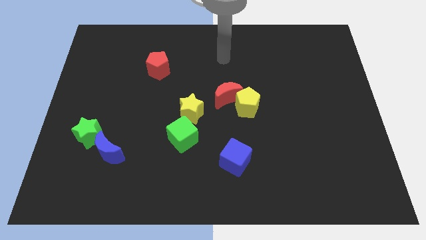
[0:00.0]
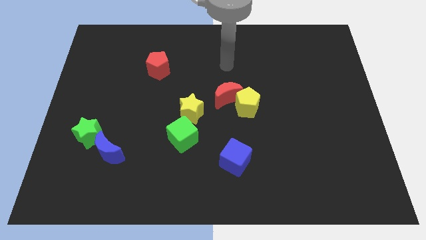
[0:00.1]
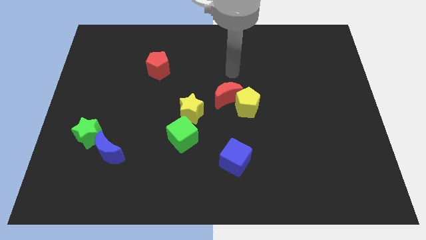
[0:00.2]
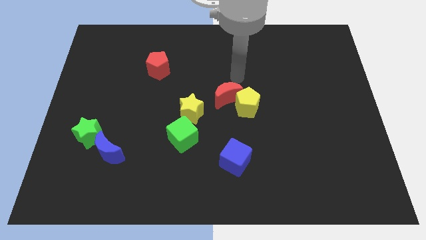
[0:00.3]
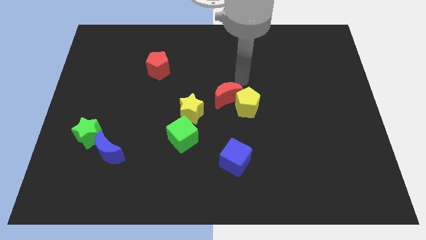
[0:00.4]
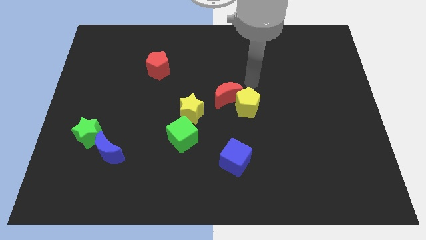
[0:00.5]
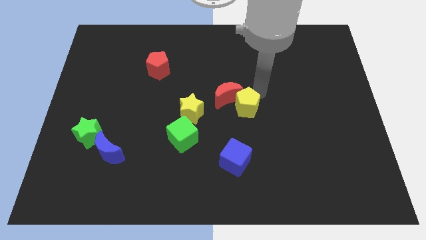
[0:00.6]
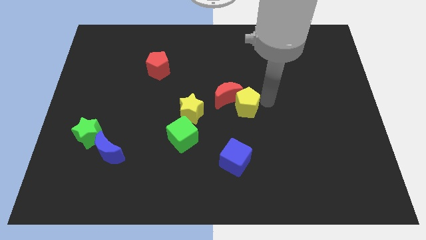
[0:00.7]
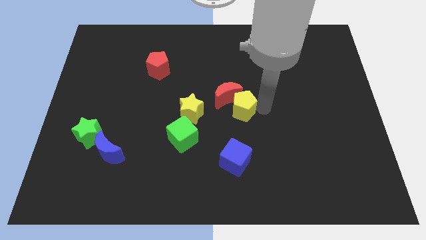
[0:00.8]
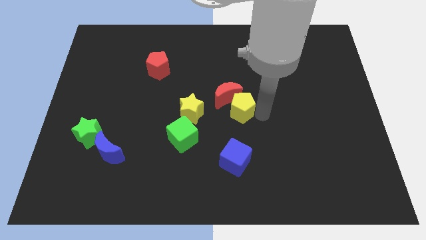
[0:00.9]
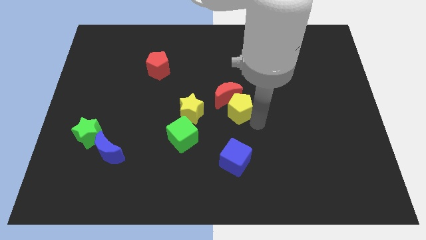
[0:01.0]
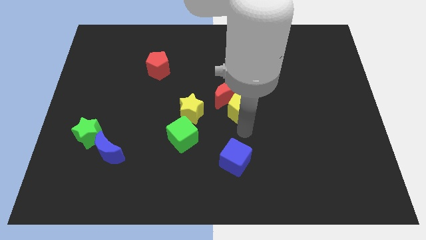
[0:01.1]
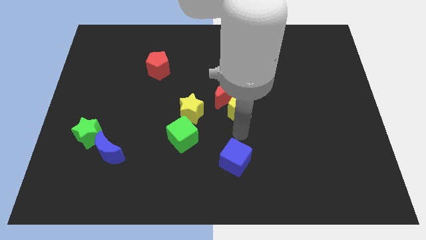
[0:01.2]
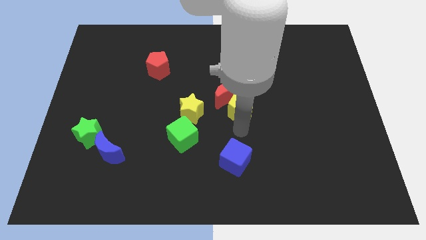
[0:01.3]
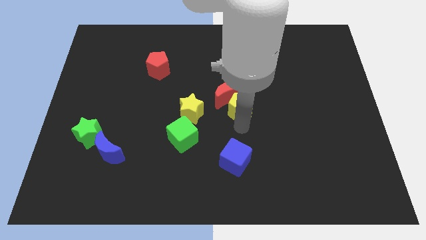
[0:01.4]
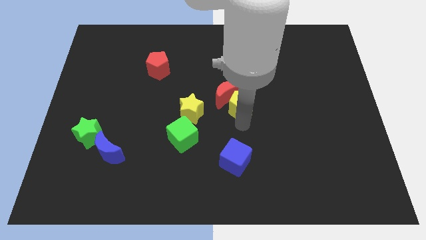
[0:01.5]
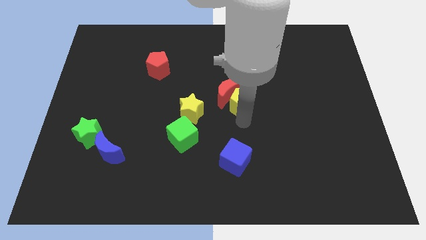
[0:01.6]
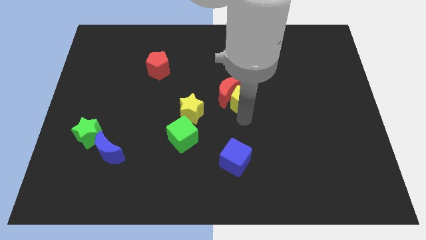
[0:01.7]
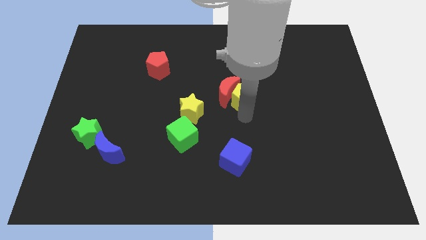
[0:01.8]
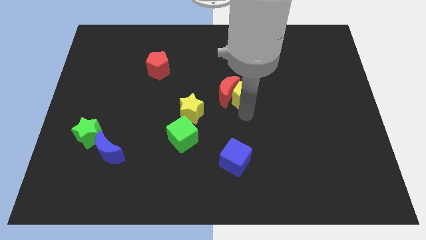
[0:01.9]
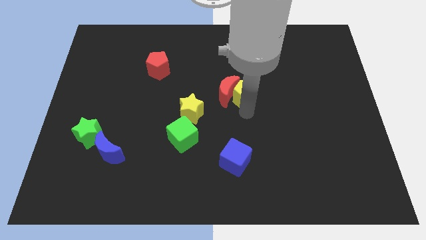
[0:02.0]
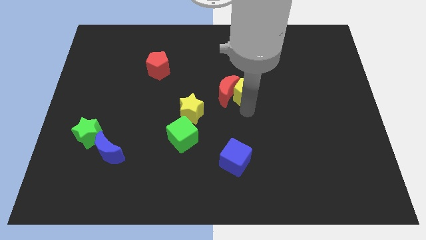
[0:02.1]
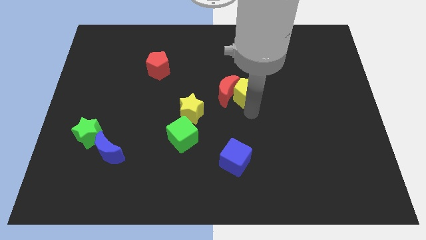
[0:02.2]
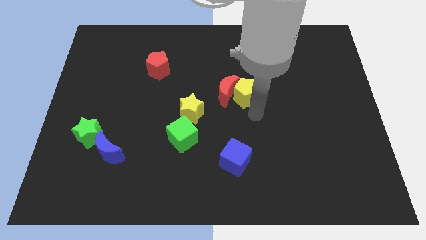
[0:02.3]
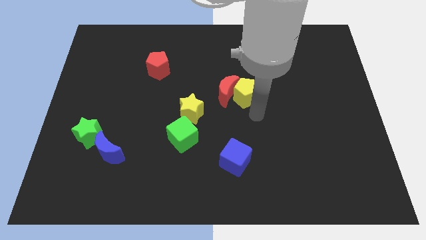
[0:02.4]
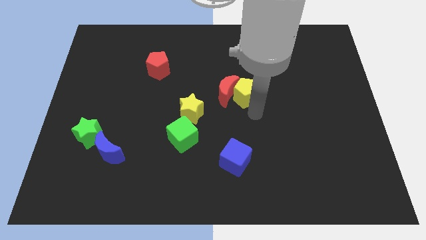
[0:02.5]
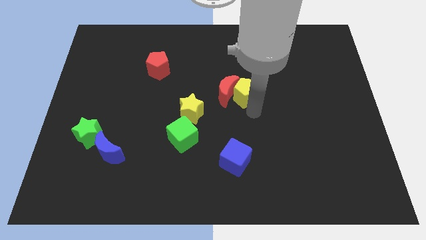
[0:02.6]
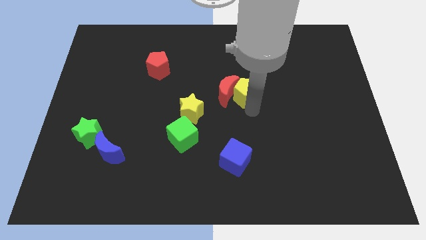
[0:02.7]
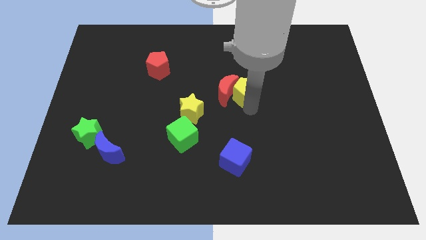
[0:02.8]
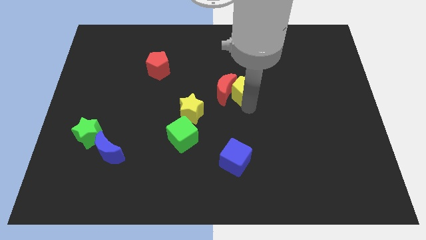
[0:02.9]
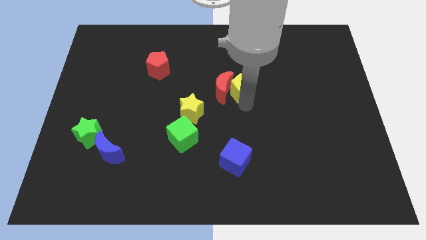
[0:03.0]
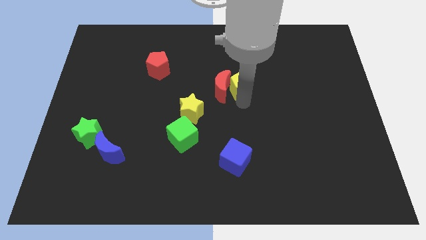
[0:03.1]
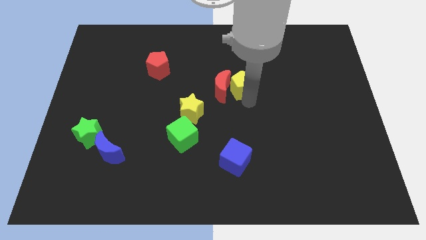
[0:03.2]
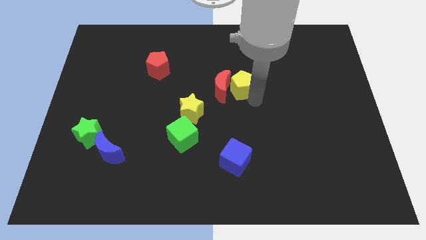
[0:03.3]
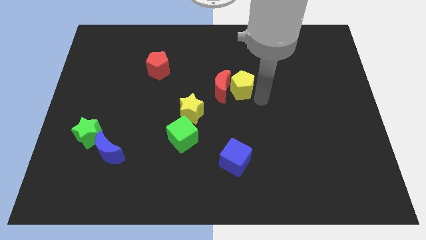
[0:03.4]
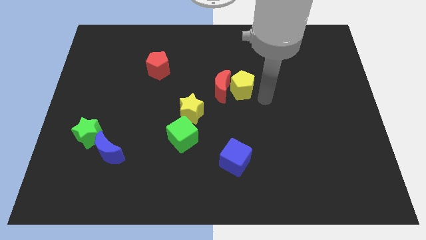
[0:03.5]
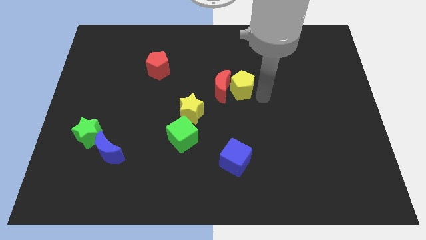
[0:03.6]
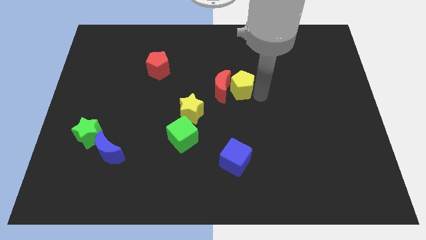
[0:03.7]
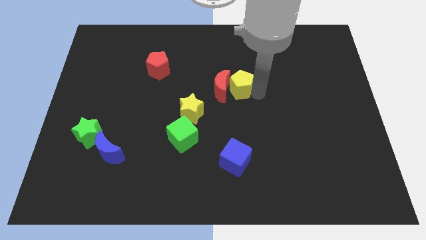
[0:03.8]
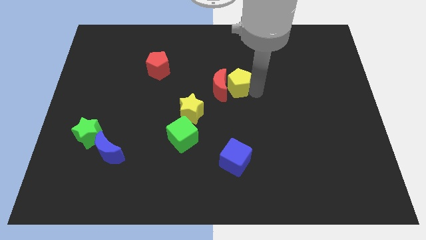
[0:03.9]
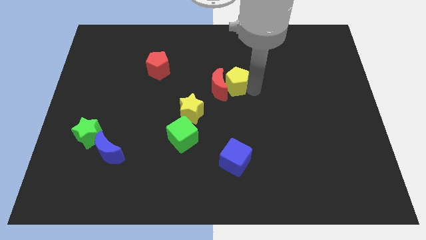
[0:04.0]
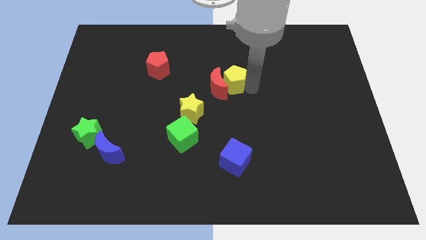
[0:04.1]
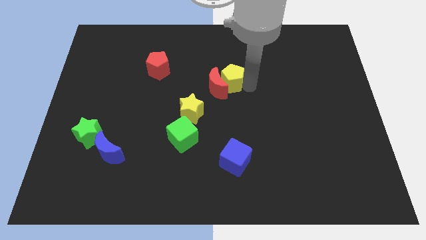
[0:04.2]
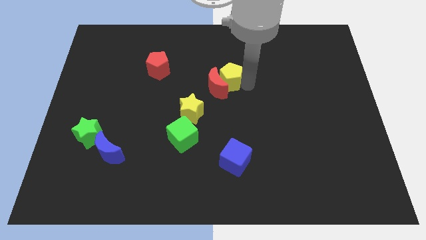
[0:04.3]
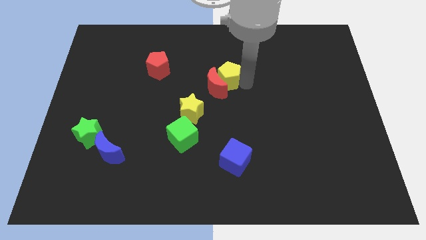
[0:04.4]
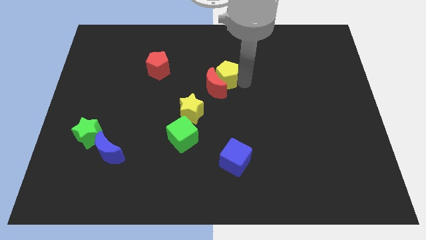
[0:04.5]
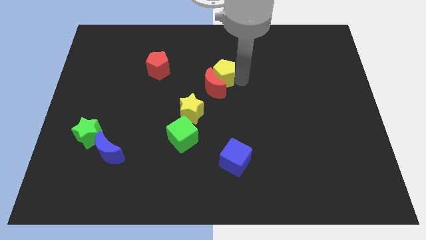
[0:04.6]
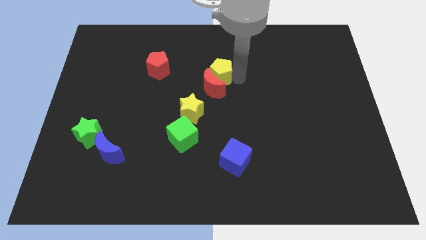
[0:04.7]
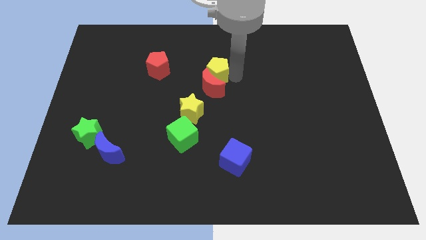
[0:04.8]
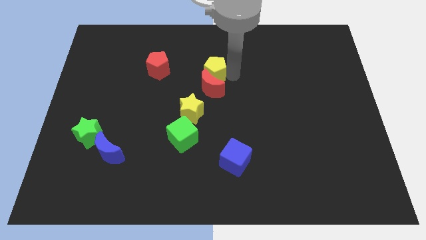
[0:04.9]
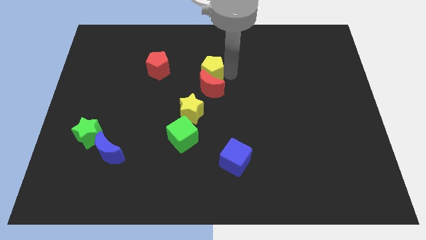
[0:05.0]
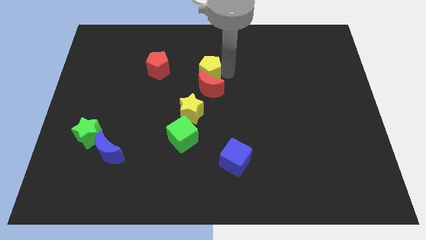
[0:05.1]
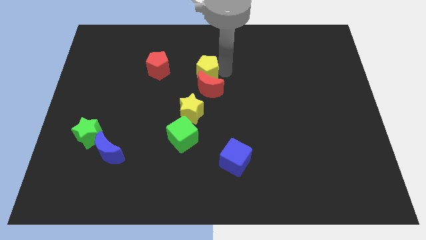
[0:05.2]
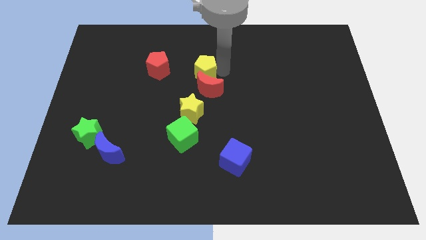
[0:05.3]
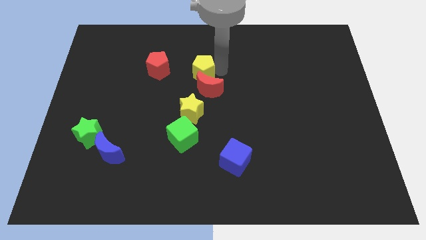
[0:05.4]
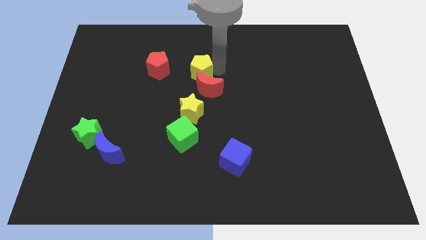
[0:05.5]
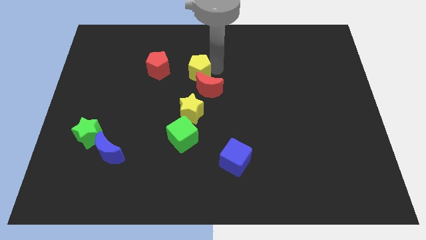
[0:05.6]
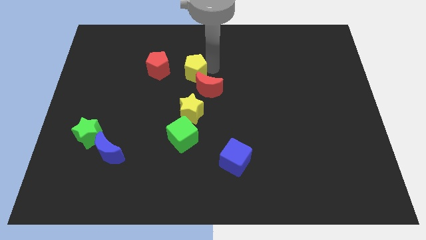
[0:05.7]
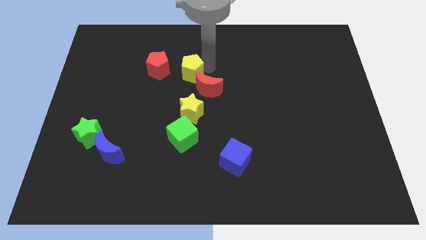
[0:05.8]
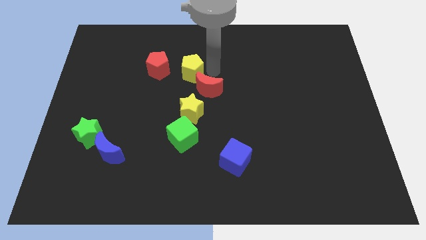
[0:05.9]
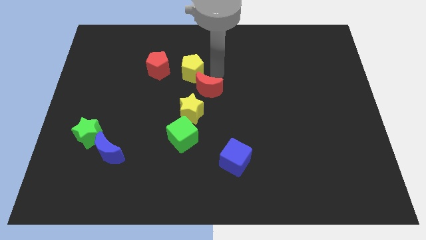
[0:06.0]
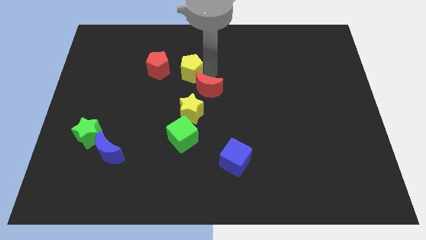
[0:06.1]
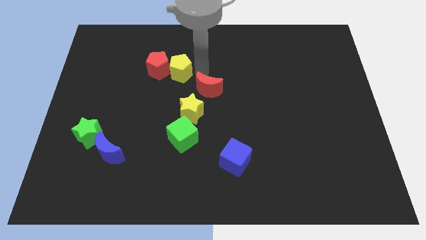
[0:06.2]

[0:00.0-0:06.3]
push the yellow pentagon to the red pentagon

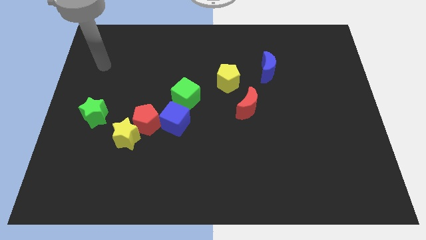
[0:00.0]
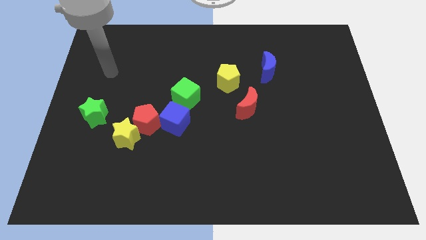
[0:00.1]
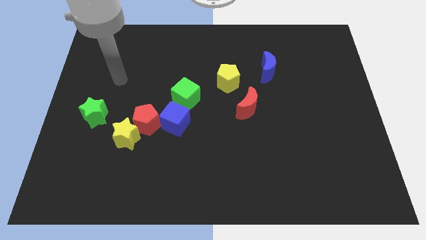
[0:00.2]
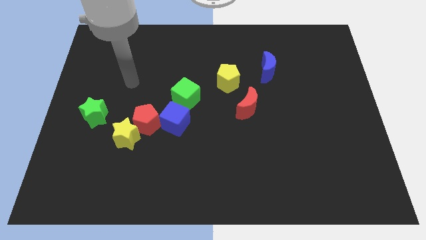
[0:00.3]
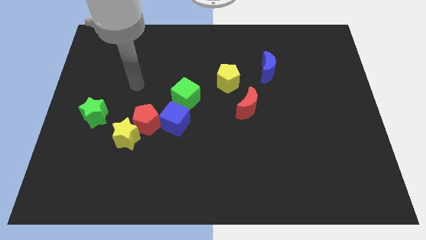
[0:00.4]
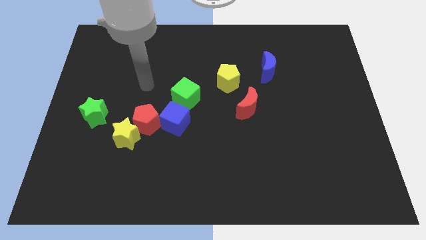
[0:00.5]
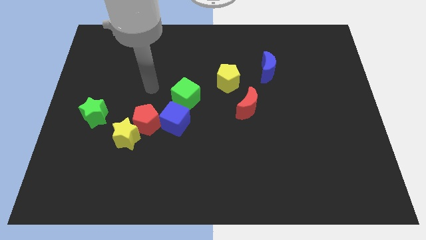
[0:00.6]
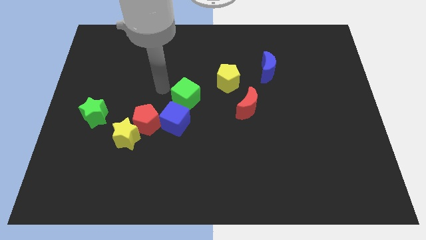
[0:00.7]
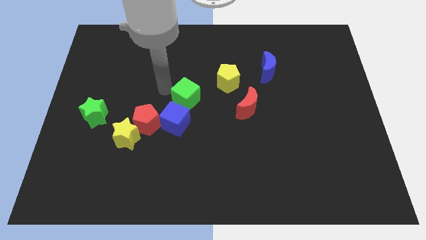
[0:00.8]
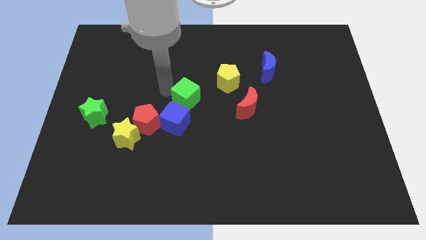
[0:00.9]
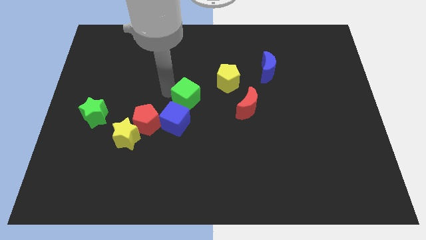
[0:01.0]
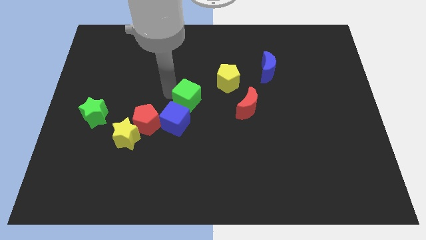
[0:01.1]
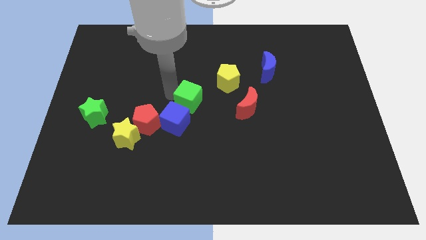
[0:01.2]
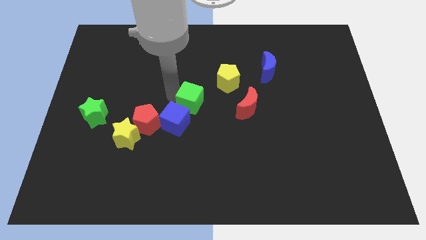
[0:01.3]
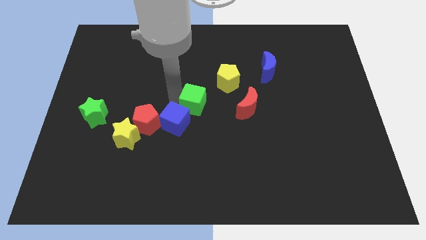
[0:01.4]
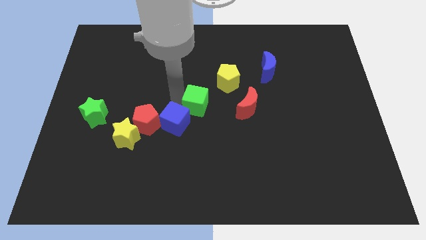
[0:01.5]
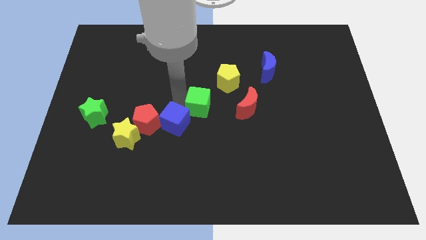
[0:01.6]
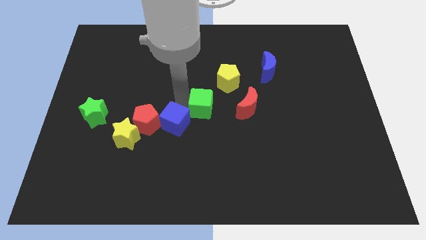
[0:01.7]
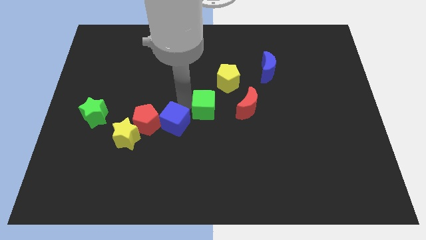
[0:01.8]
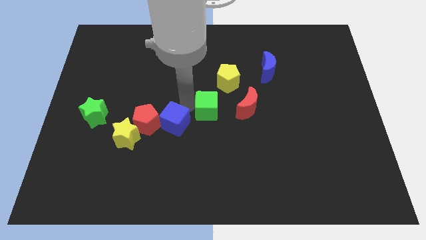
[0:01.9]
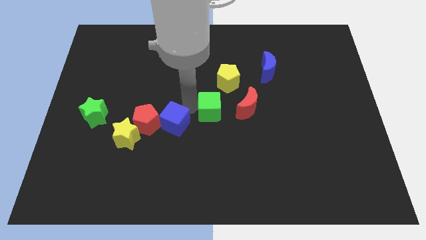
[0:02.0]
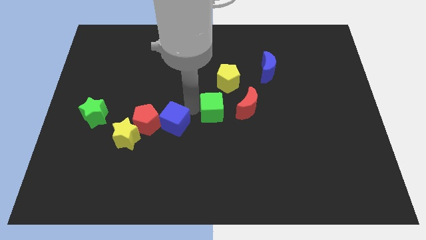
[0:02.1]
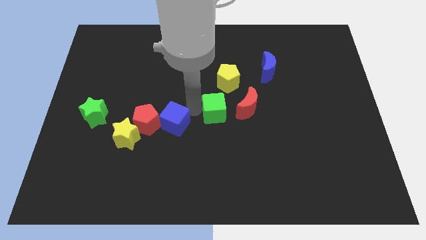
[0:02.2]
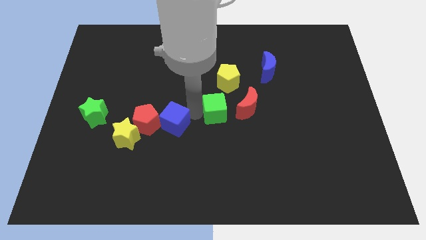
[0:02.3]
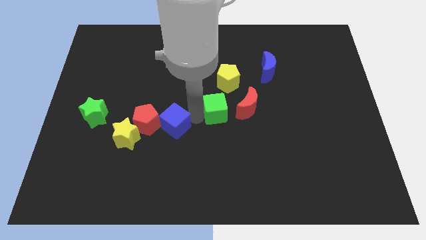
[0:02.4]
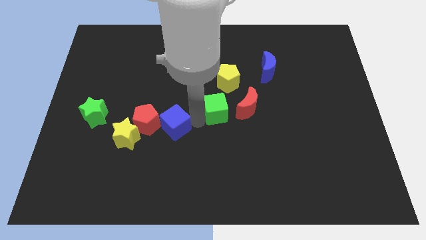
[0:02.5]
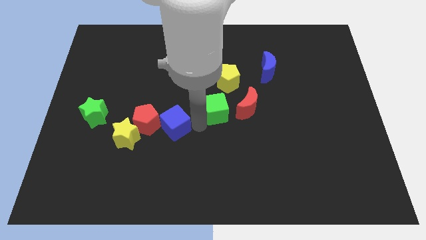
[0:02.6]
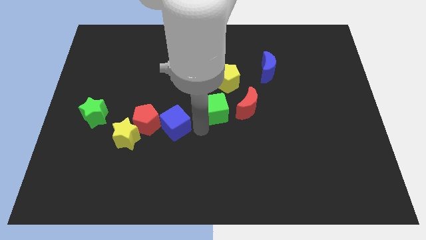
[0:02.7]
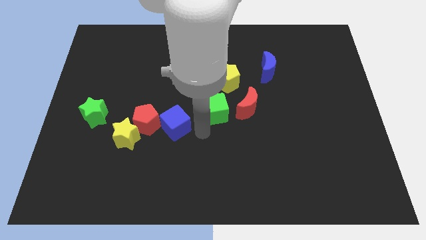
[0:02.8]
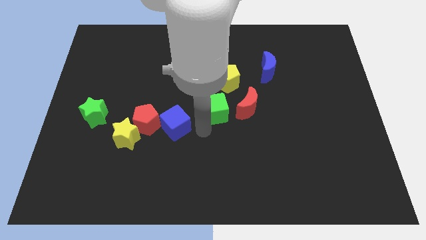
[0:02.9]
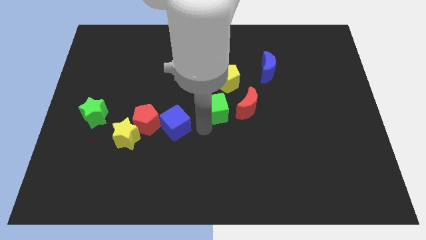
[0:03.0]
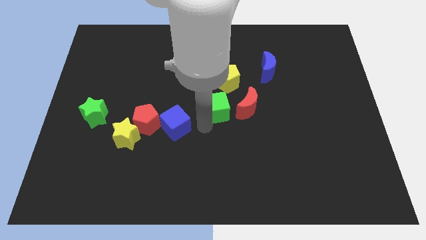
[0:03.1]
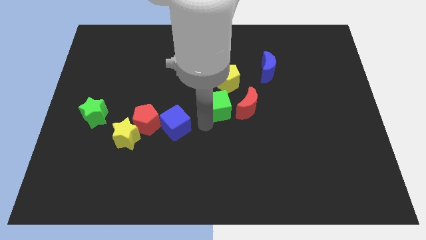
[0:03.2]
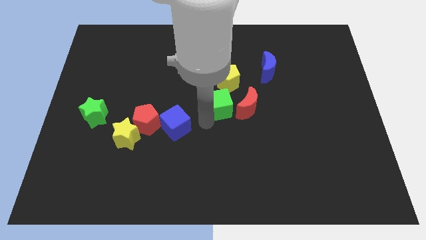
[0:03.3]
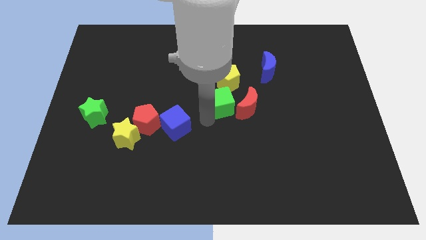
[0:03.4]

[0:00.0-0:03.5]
put the green cube close to the red moon
